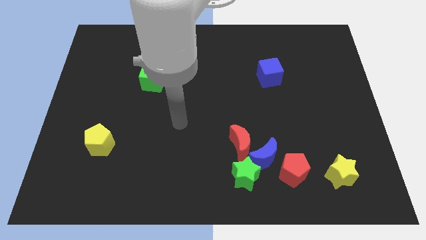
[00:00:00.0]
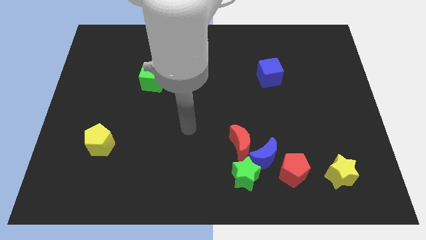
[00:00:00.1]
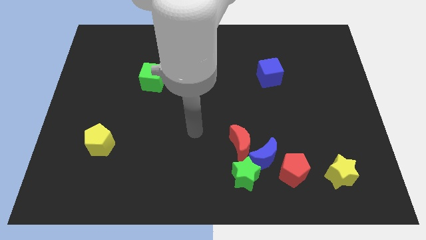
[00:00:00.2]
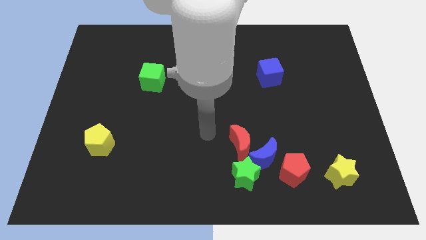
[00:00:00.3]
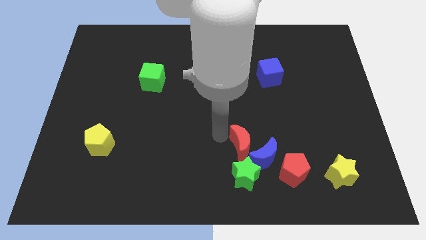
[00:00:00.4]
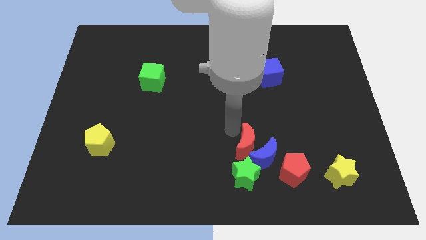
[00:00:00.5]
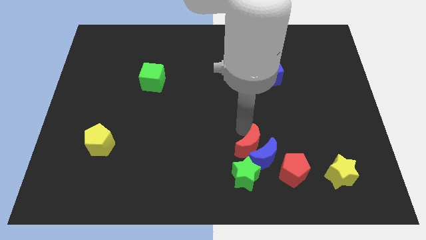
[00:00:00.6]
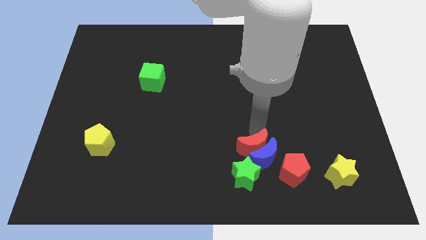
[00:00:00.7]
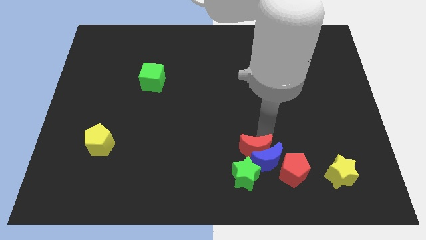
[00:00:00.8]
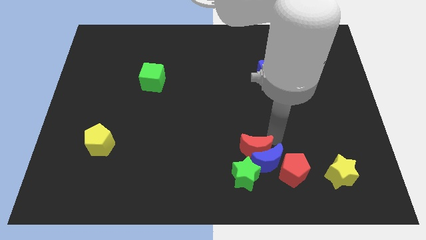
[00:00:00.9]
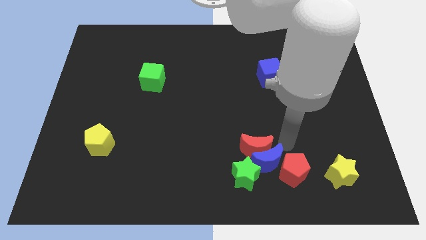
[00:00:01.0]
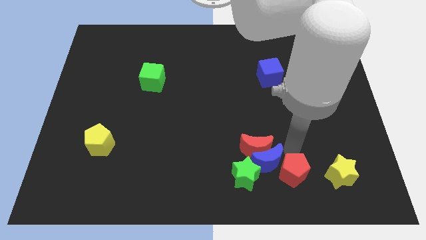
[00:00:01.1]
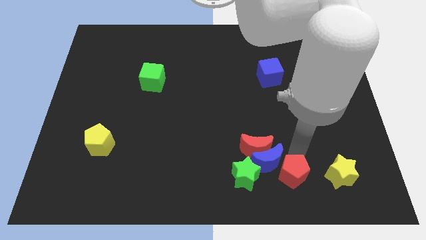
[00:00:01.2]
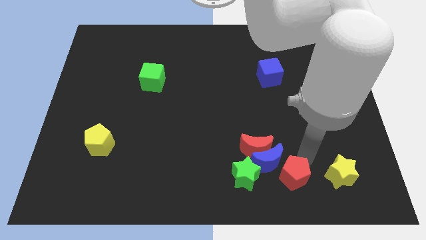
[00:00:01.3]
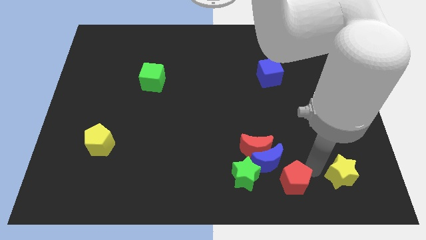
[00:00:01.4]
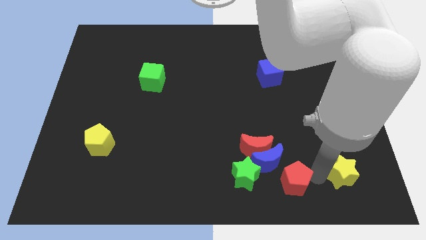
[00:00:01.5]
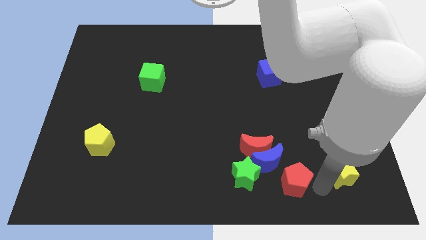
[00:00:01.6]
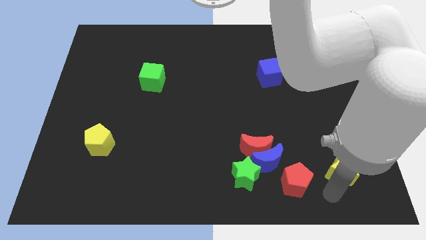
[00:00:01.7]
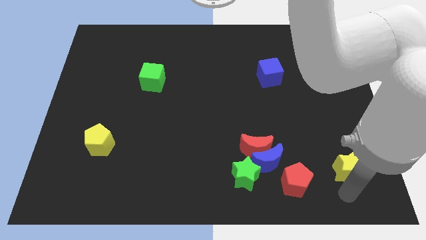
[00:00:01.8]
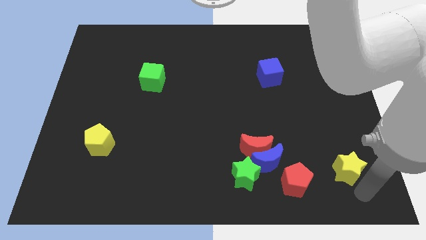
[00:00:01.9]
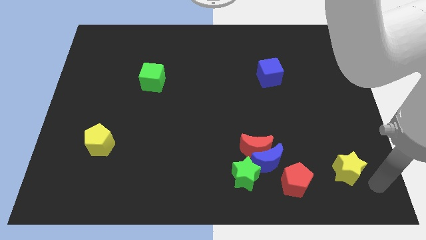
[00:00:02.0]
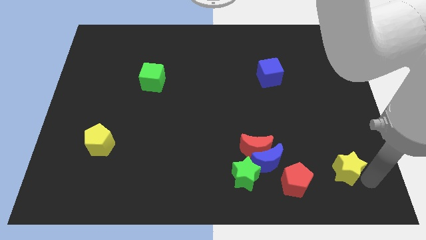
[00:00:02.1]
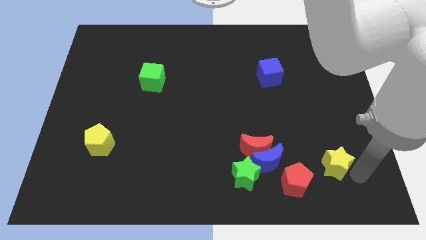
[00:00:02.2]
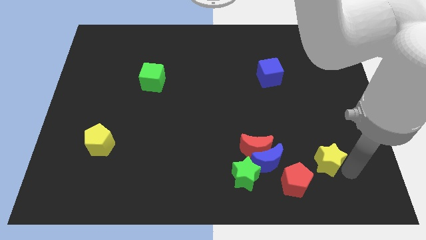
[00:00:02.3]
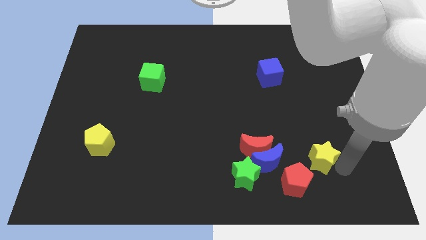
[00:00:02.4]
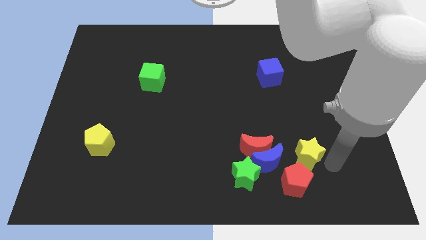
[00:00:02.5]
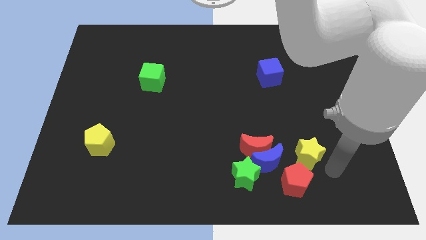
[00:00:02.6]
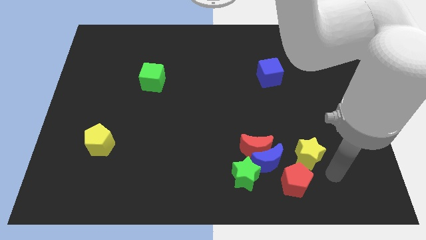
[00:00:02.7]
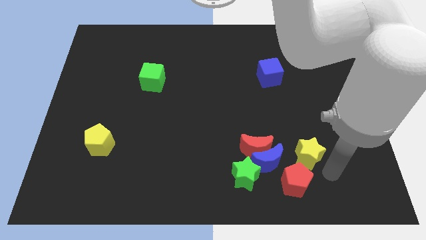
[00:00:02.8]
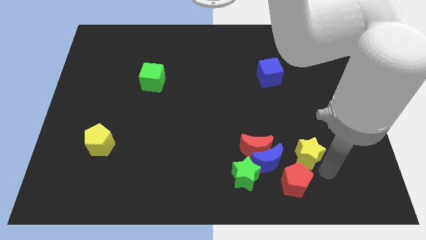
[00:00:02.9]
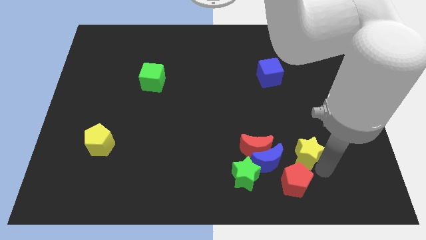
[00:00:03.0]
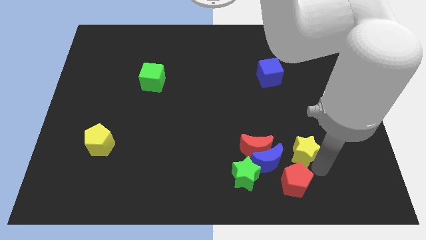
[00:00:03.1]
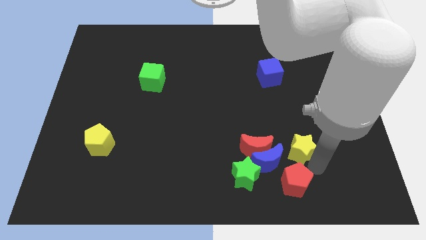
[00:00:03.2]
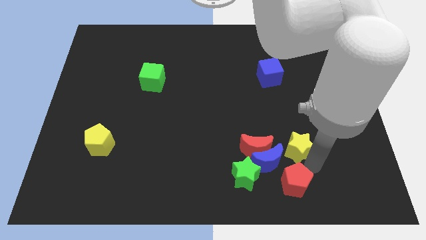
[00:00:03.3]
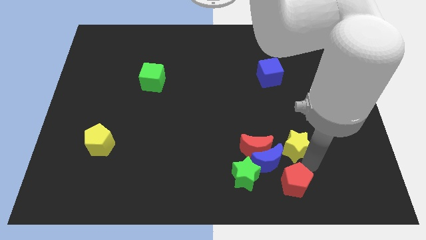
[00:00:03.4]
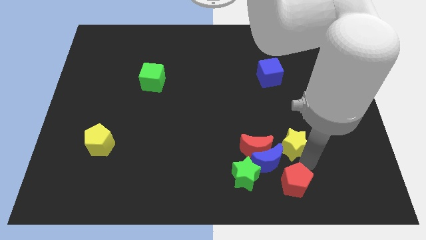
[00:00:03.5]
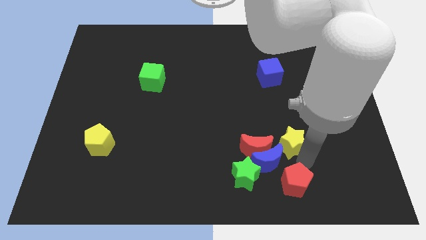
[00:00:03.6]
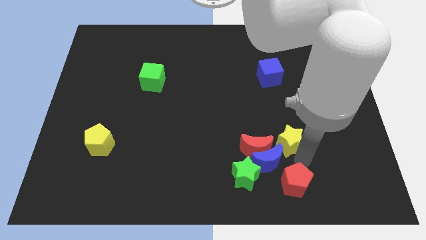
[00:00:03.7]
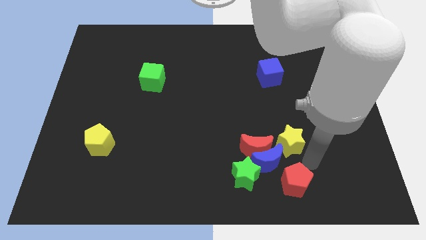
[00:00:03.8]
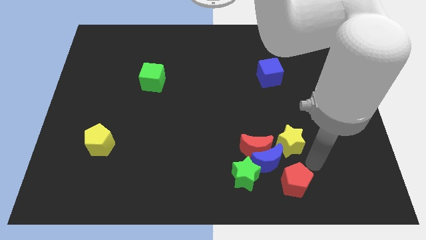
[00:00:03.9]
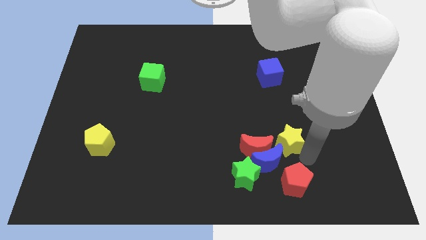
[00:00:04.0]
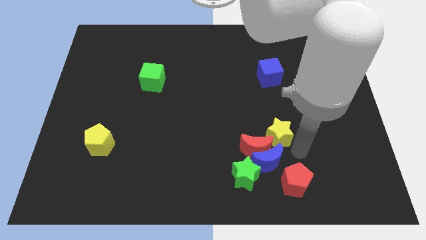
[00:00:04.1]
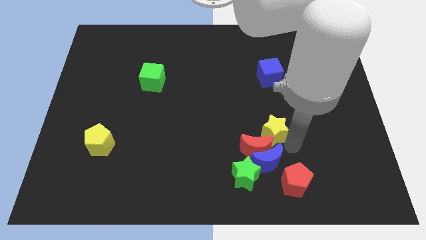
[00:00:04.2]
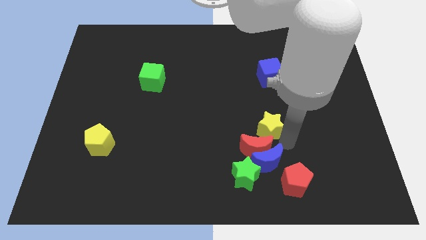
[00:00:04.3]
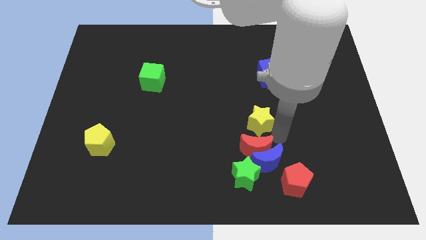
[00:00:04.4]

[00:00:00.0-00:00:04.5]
move the yellow star up and to the left

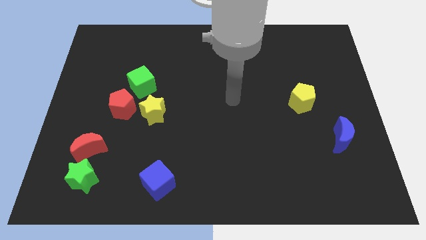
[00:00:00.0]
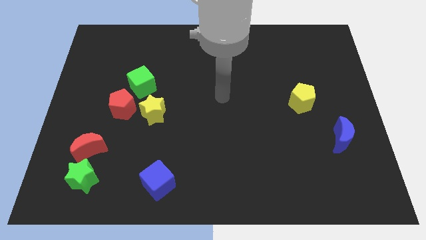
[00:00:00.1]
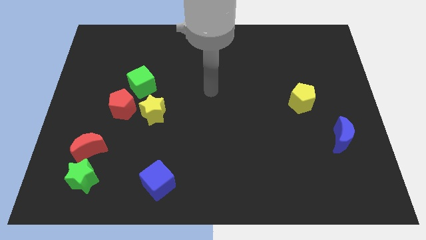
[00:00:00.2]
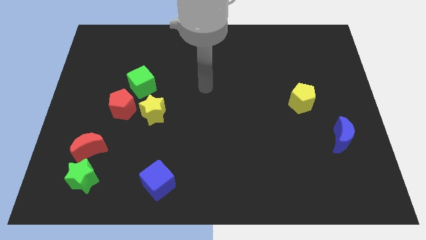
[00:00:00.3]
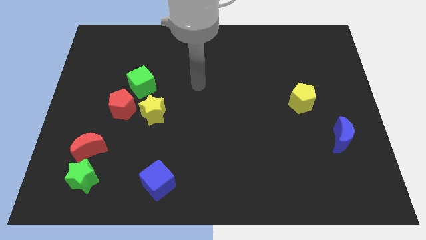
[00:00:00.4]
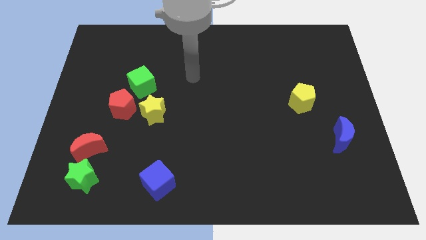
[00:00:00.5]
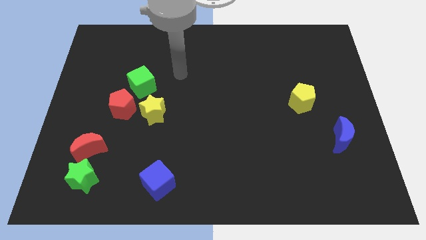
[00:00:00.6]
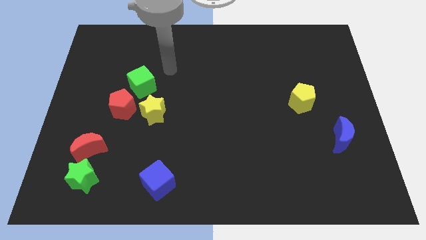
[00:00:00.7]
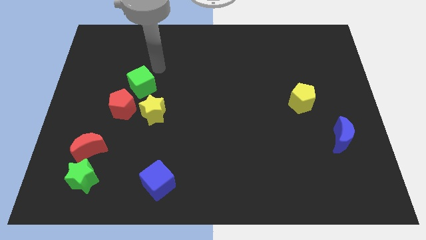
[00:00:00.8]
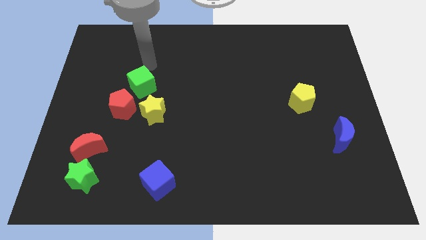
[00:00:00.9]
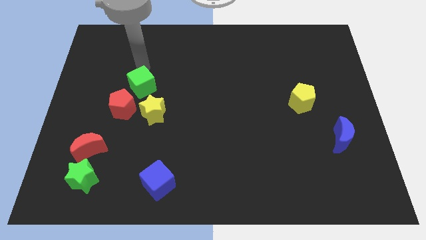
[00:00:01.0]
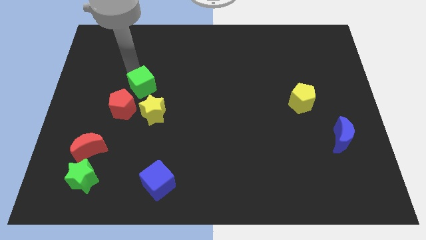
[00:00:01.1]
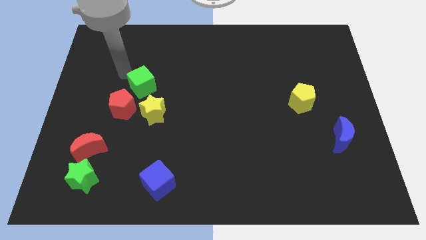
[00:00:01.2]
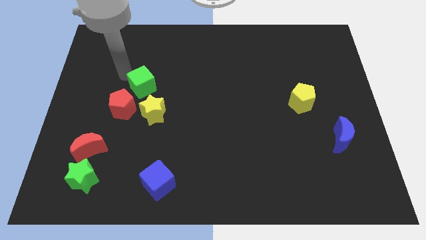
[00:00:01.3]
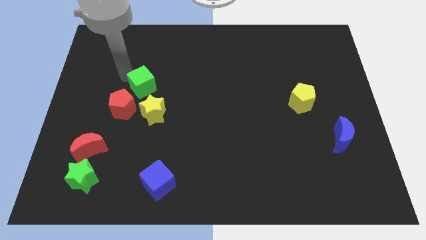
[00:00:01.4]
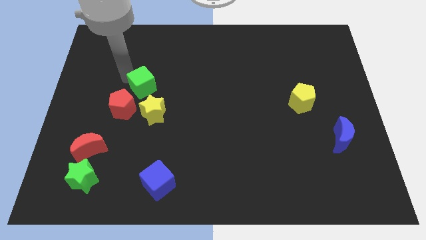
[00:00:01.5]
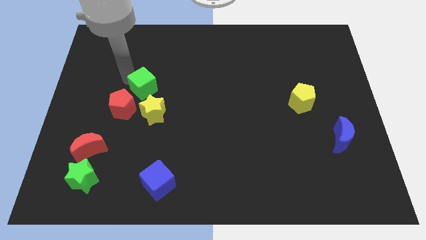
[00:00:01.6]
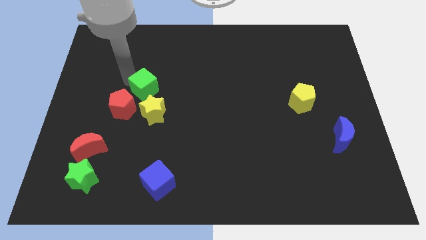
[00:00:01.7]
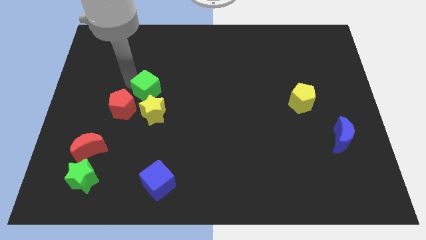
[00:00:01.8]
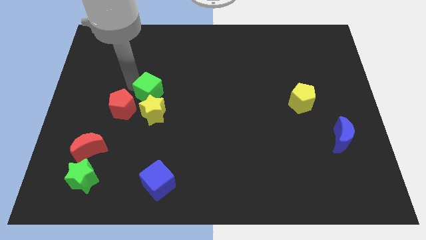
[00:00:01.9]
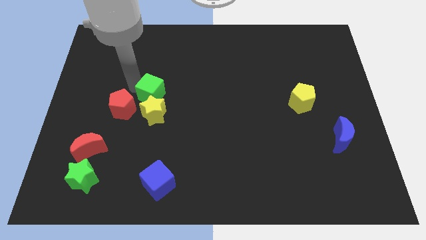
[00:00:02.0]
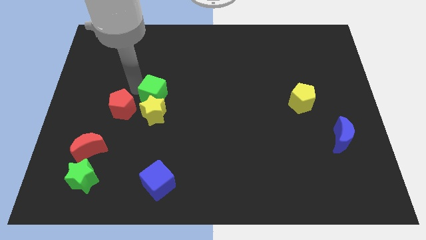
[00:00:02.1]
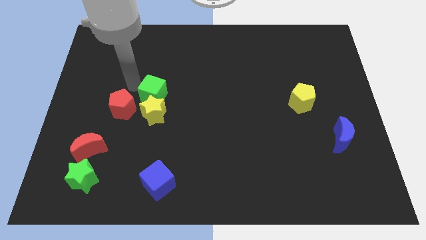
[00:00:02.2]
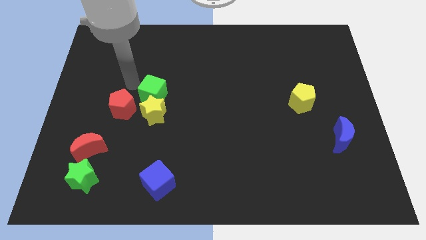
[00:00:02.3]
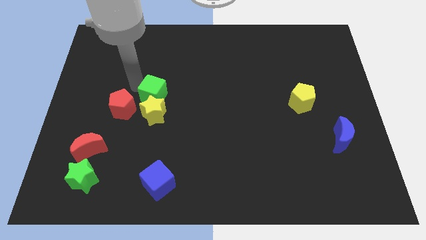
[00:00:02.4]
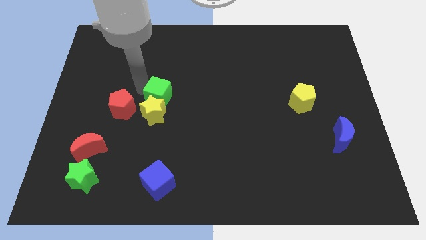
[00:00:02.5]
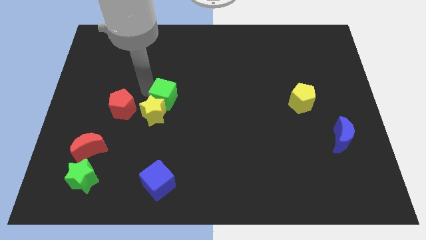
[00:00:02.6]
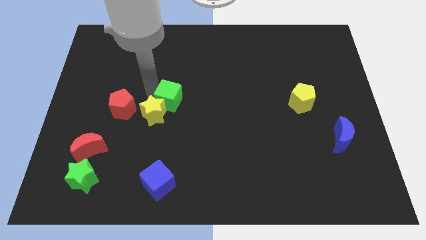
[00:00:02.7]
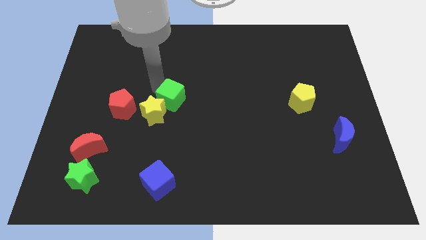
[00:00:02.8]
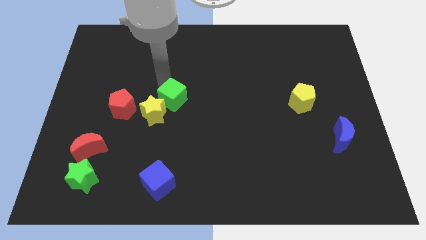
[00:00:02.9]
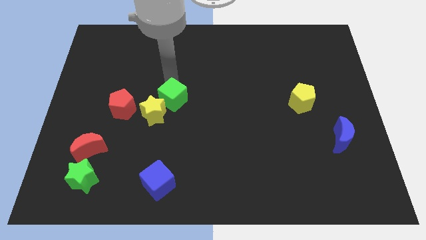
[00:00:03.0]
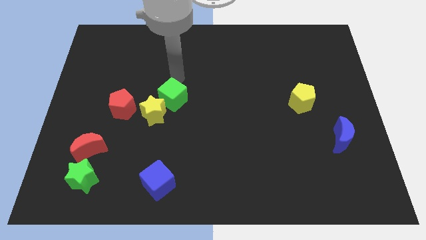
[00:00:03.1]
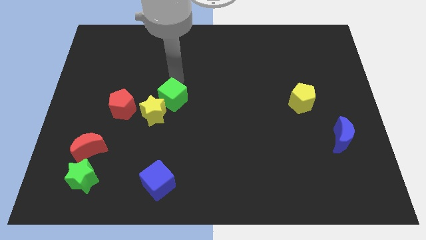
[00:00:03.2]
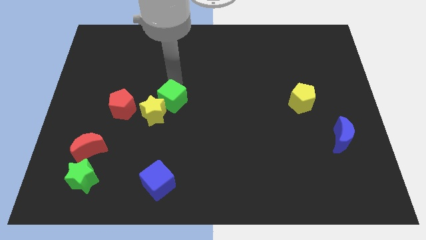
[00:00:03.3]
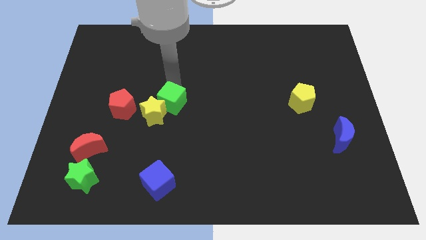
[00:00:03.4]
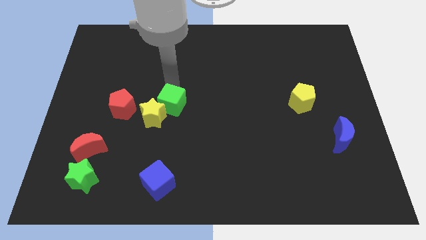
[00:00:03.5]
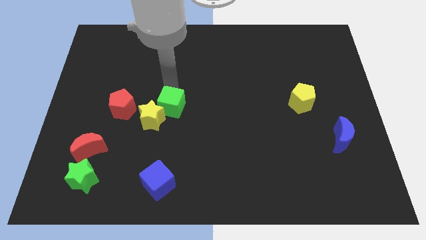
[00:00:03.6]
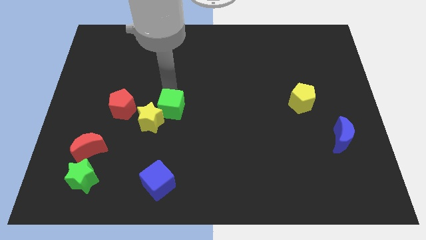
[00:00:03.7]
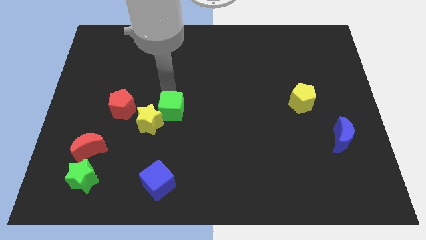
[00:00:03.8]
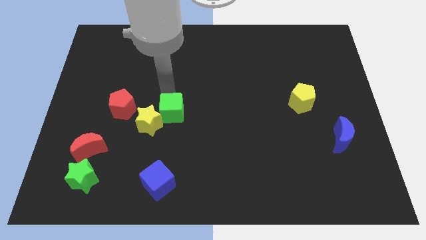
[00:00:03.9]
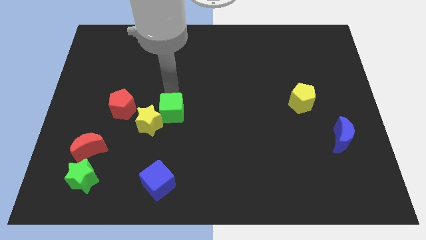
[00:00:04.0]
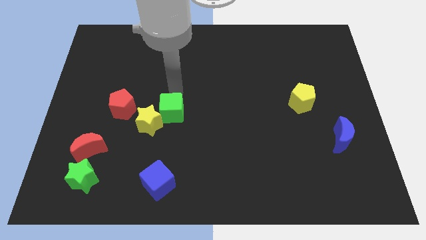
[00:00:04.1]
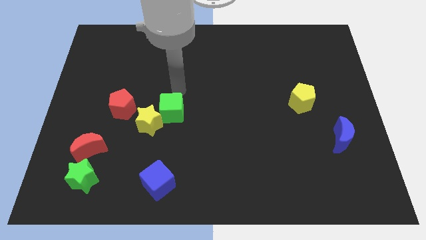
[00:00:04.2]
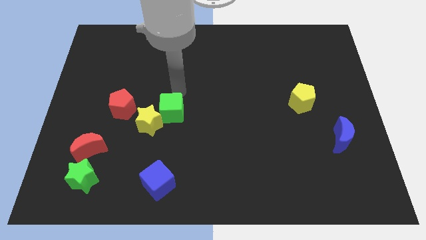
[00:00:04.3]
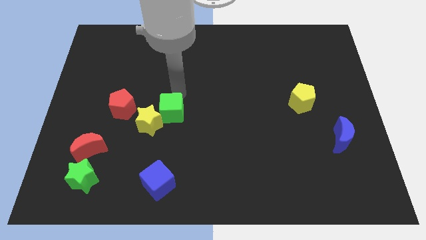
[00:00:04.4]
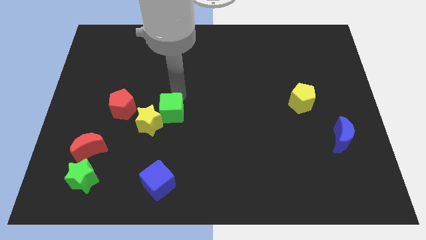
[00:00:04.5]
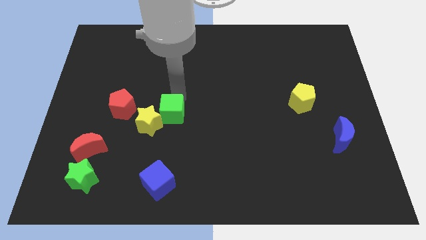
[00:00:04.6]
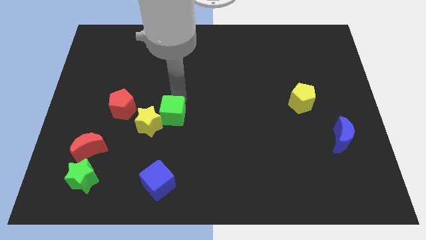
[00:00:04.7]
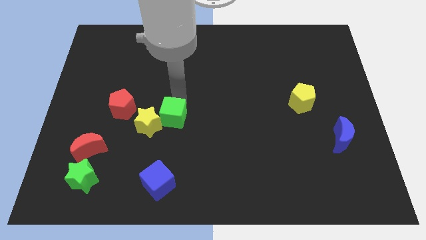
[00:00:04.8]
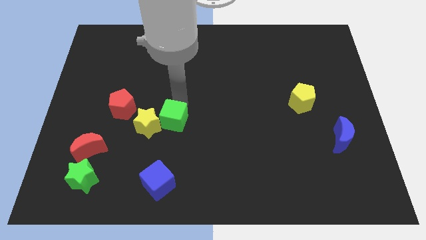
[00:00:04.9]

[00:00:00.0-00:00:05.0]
slide the green cube somewhat downwards
